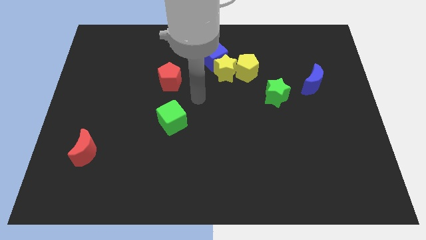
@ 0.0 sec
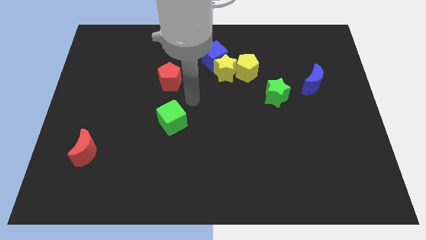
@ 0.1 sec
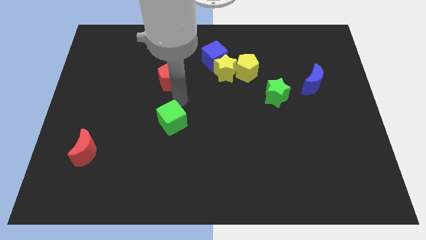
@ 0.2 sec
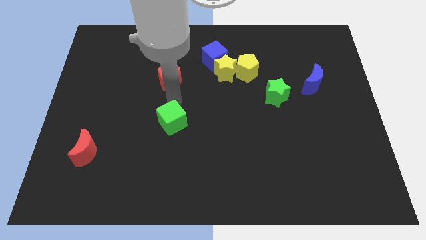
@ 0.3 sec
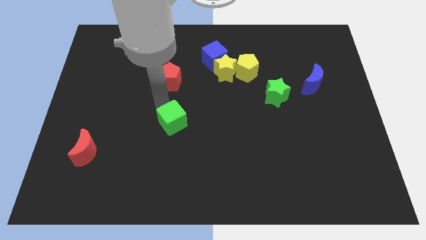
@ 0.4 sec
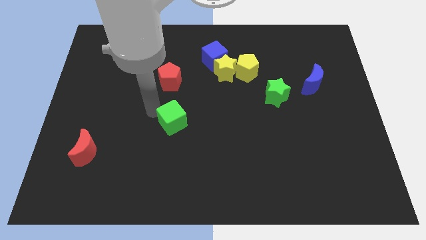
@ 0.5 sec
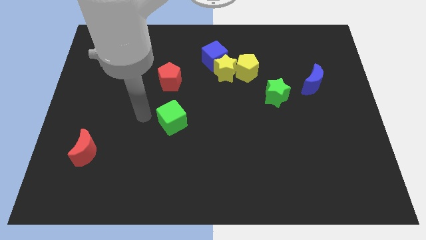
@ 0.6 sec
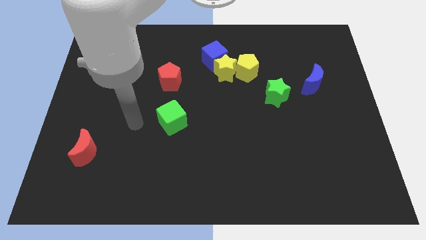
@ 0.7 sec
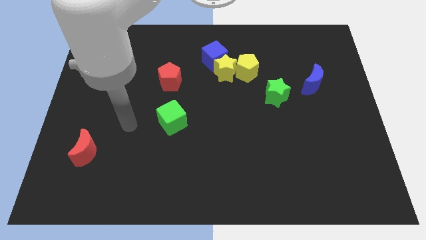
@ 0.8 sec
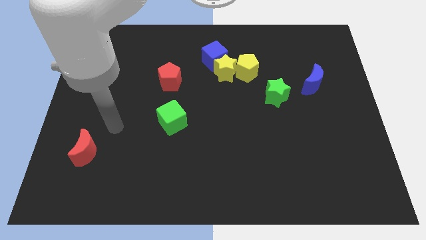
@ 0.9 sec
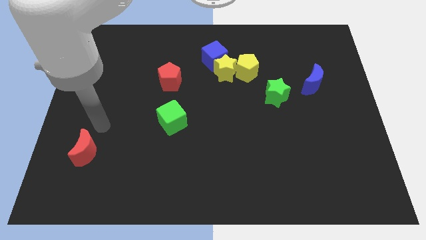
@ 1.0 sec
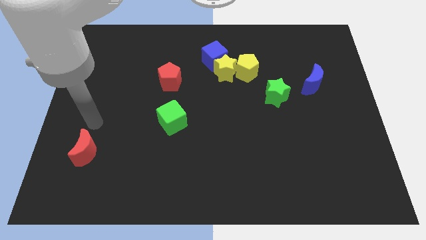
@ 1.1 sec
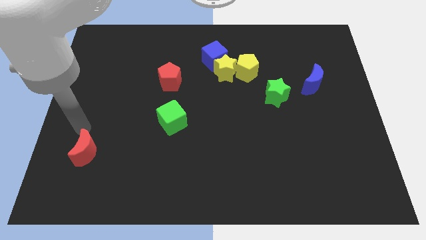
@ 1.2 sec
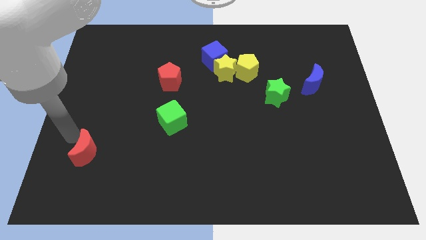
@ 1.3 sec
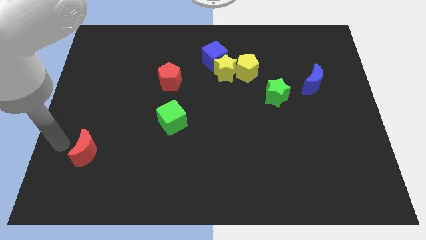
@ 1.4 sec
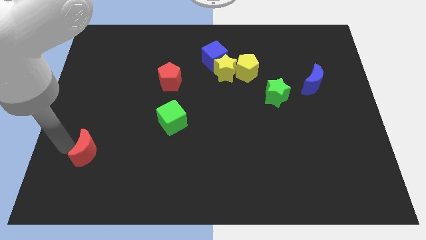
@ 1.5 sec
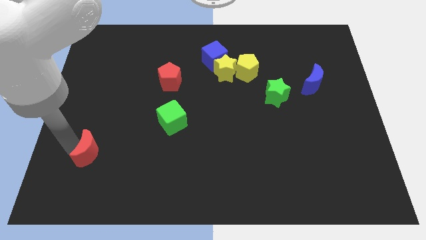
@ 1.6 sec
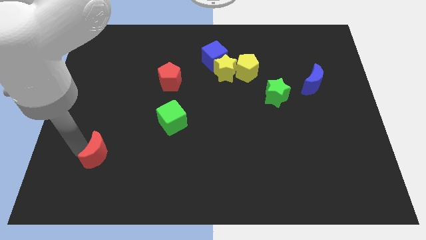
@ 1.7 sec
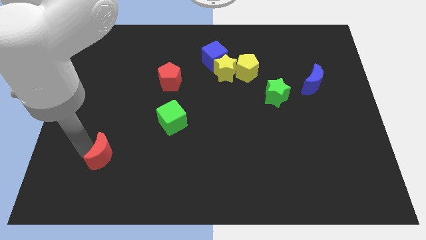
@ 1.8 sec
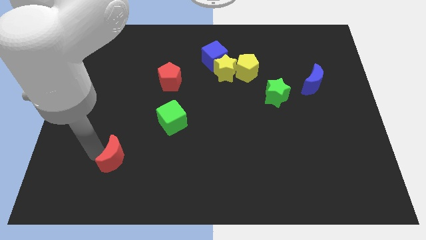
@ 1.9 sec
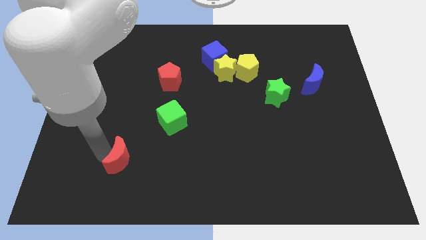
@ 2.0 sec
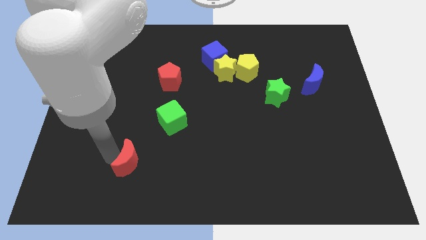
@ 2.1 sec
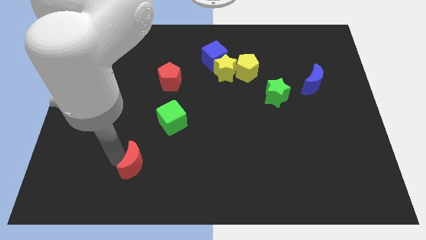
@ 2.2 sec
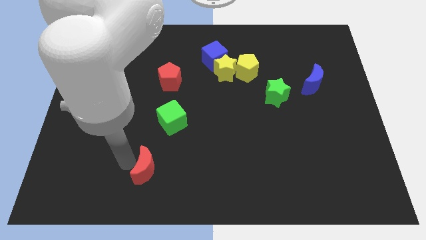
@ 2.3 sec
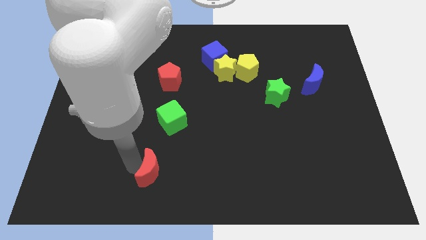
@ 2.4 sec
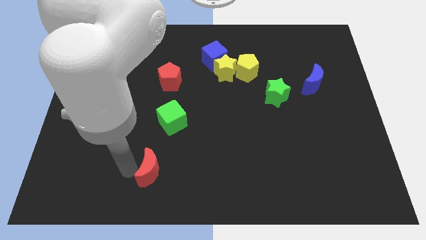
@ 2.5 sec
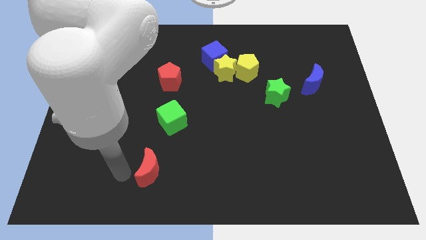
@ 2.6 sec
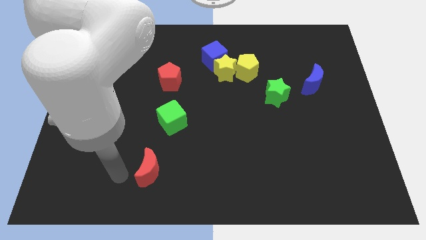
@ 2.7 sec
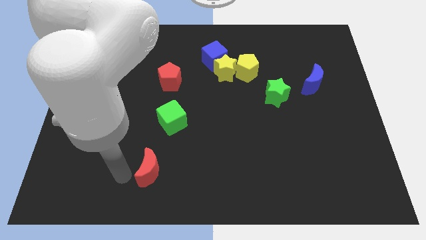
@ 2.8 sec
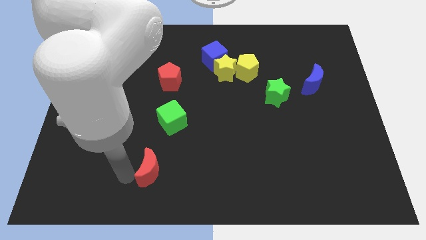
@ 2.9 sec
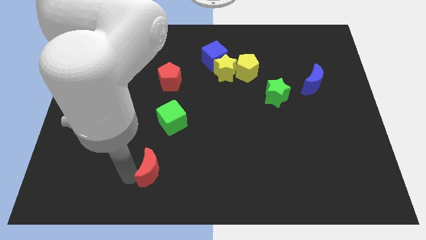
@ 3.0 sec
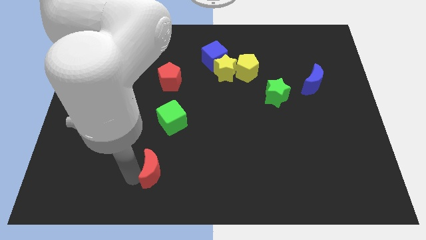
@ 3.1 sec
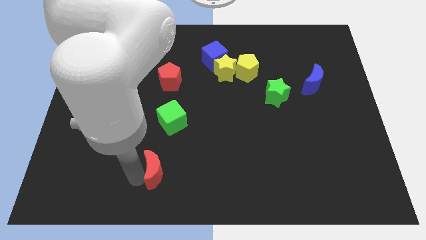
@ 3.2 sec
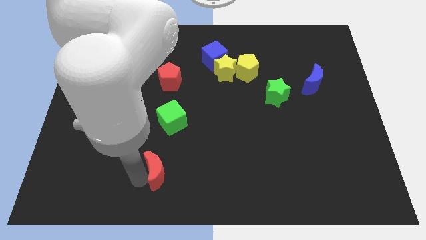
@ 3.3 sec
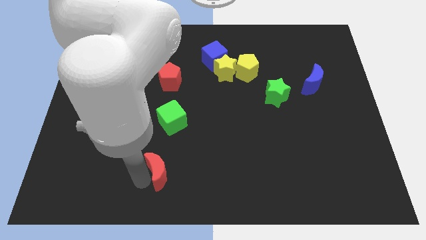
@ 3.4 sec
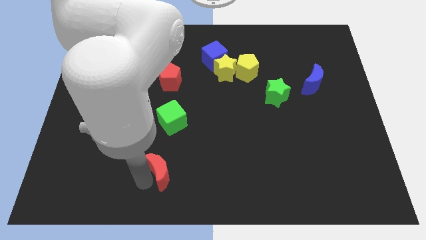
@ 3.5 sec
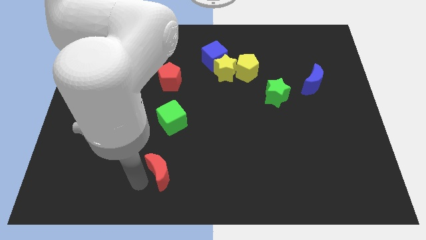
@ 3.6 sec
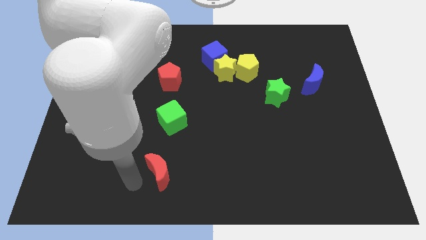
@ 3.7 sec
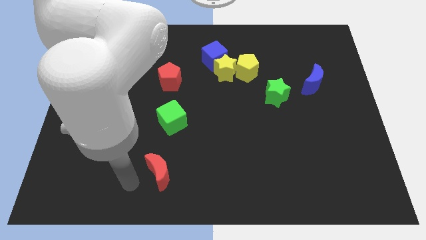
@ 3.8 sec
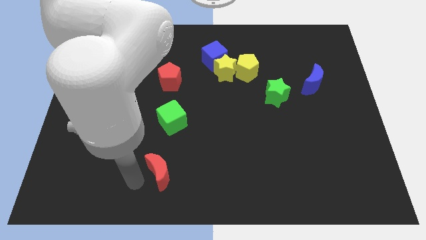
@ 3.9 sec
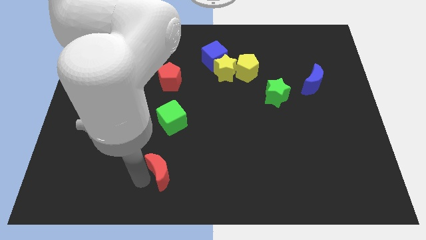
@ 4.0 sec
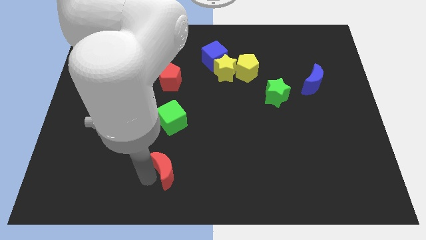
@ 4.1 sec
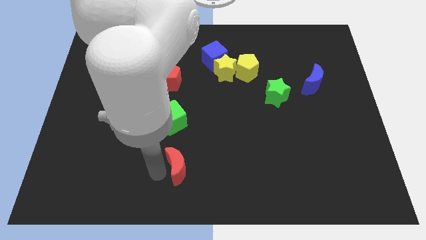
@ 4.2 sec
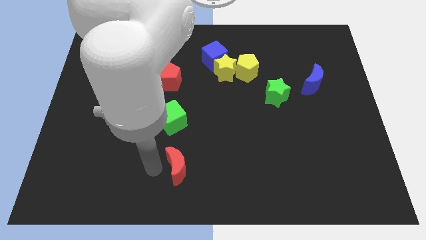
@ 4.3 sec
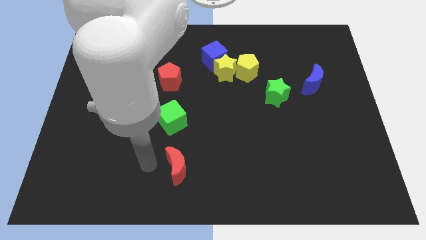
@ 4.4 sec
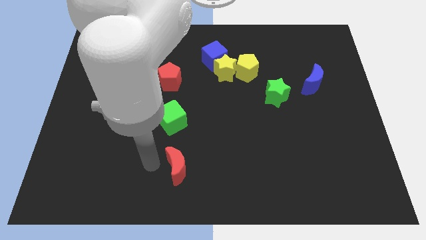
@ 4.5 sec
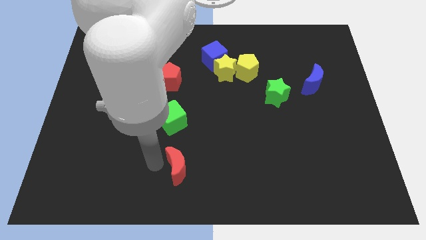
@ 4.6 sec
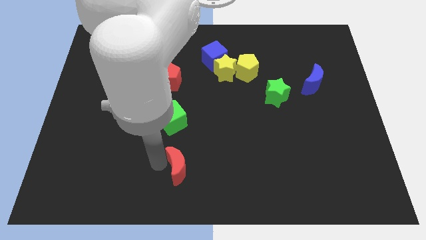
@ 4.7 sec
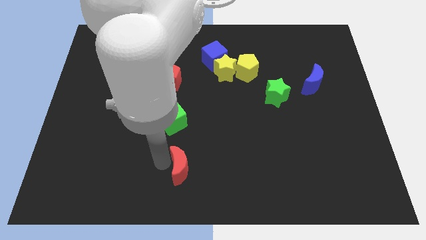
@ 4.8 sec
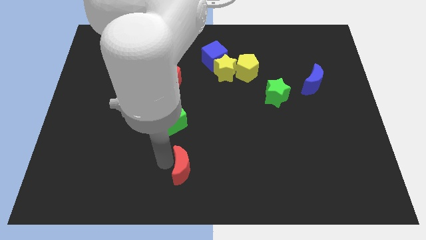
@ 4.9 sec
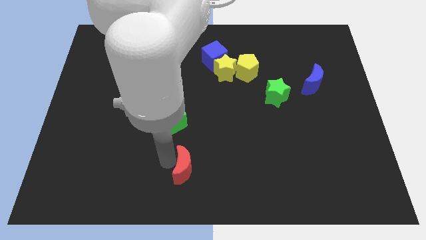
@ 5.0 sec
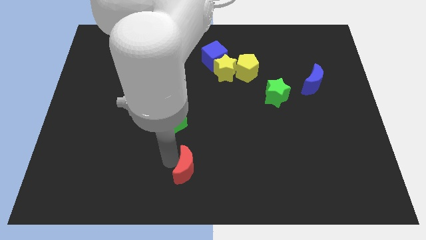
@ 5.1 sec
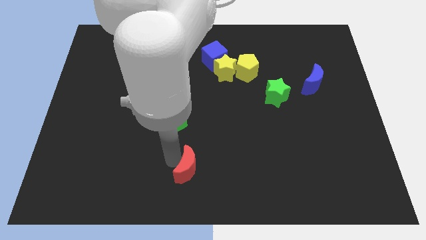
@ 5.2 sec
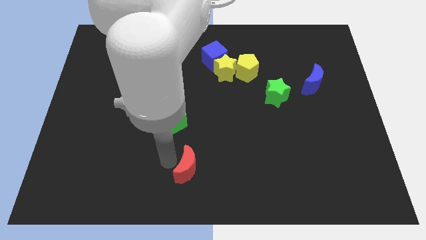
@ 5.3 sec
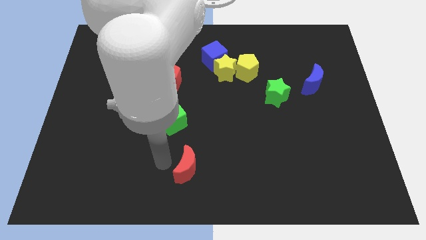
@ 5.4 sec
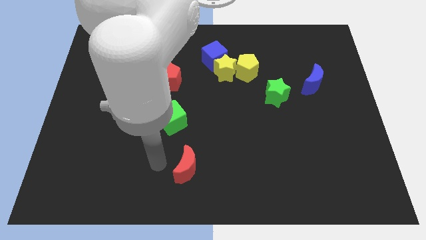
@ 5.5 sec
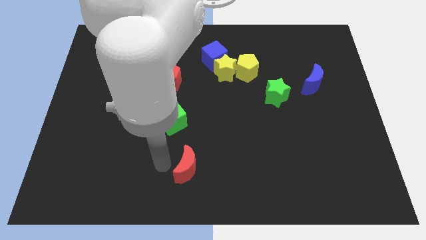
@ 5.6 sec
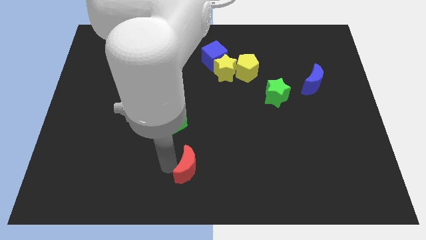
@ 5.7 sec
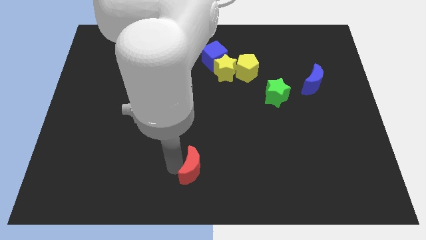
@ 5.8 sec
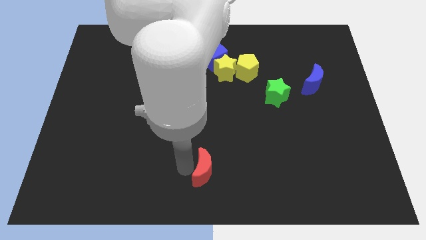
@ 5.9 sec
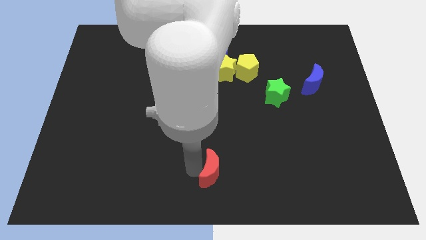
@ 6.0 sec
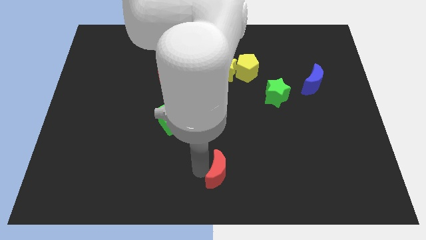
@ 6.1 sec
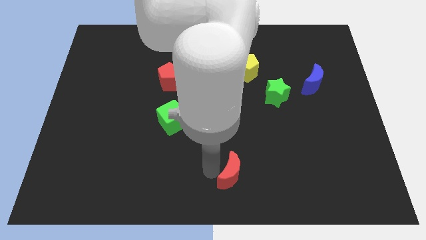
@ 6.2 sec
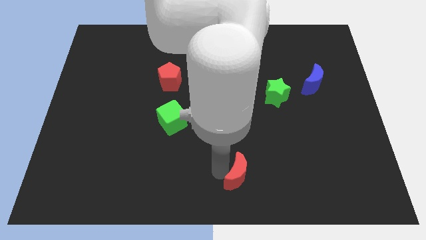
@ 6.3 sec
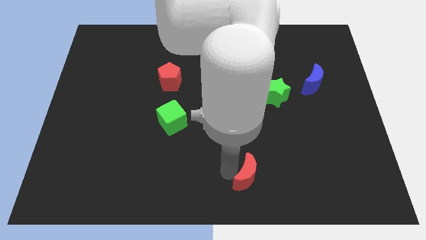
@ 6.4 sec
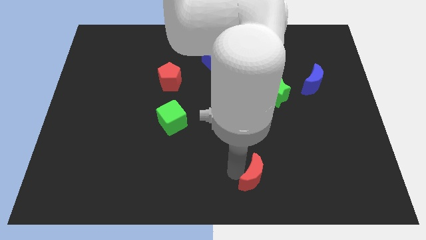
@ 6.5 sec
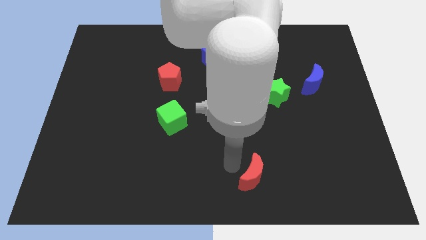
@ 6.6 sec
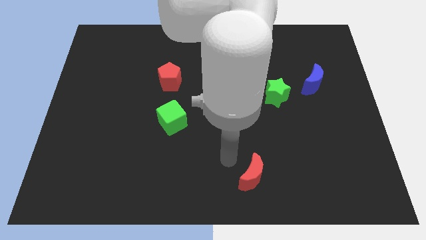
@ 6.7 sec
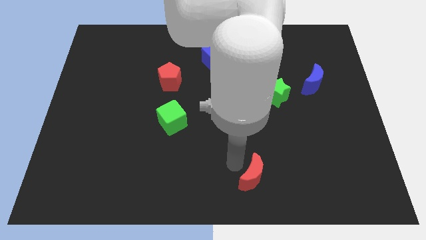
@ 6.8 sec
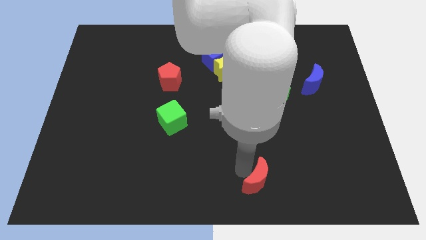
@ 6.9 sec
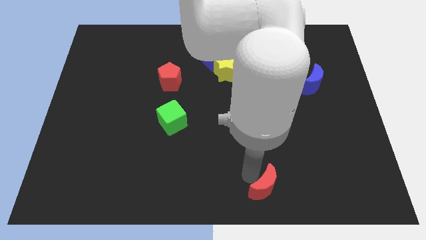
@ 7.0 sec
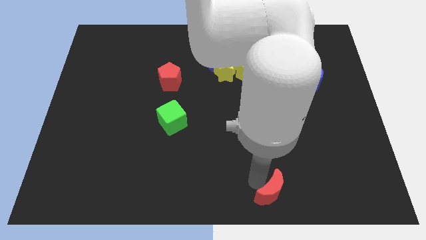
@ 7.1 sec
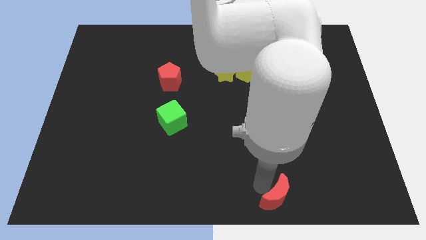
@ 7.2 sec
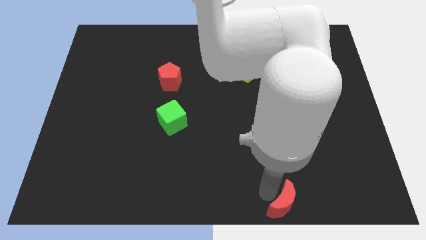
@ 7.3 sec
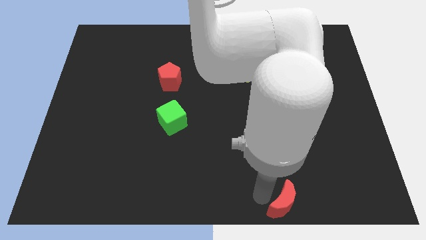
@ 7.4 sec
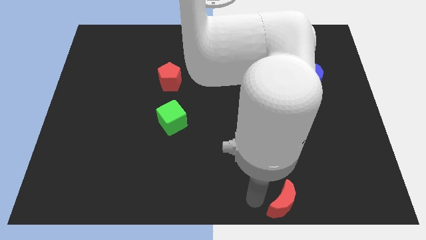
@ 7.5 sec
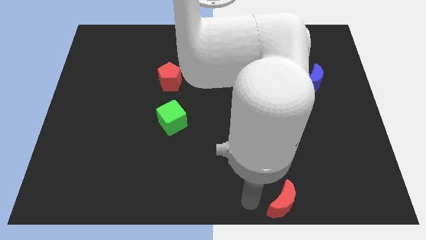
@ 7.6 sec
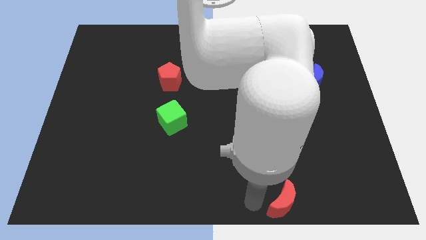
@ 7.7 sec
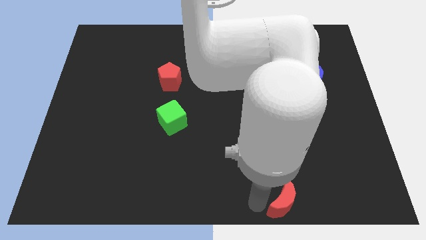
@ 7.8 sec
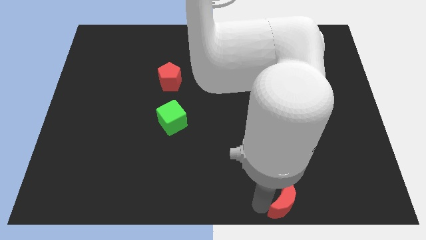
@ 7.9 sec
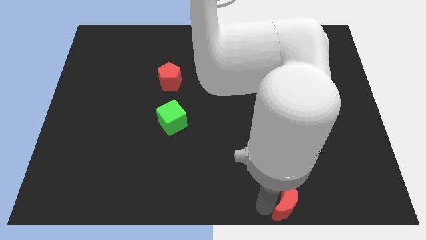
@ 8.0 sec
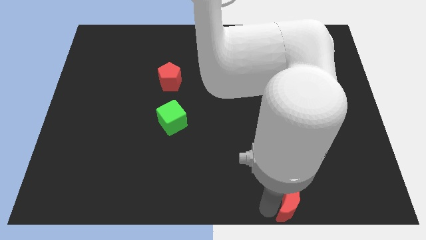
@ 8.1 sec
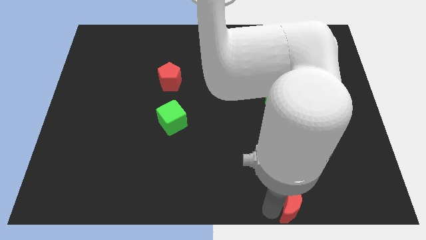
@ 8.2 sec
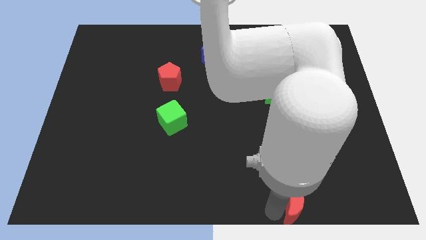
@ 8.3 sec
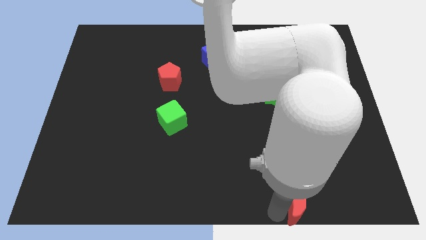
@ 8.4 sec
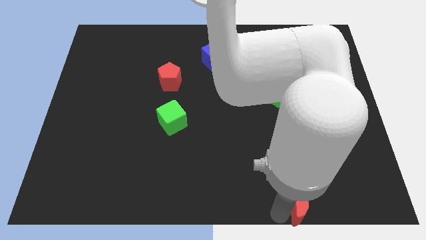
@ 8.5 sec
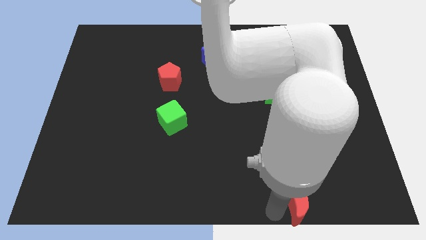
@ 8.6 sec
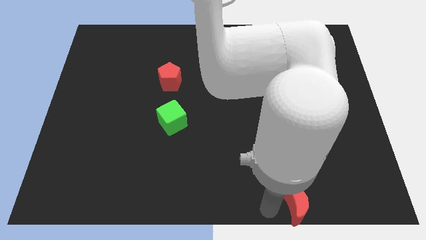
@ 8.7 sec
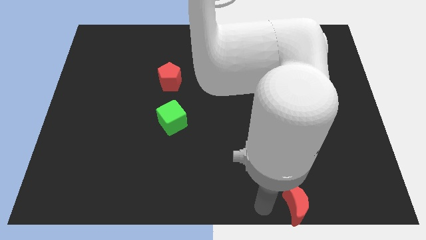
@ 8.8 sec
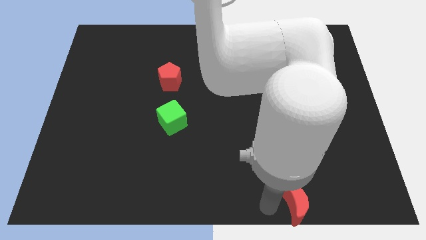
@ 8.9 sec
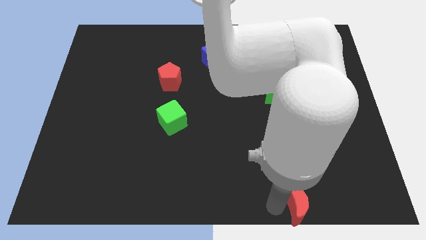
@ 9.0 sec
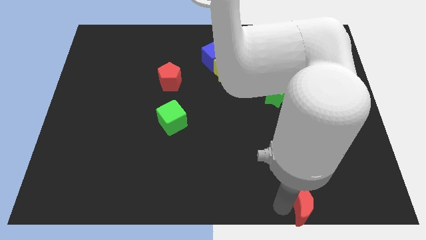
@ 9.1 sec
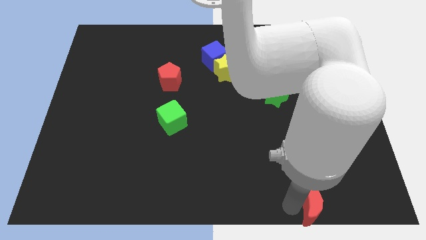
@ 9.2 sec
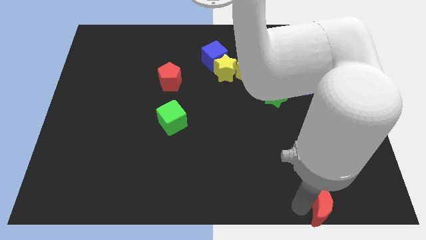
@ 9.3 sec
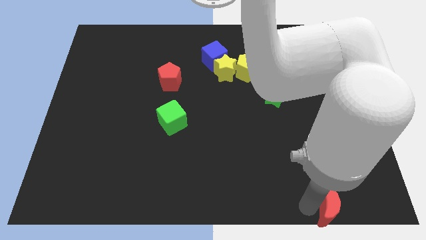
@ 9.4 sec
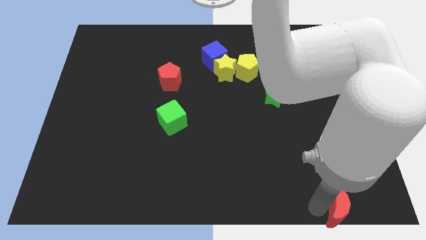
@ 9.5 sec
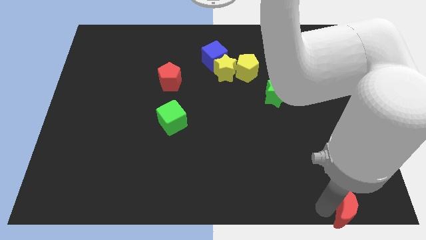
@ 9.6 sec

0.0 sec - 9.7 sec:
slide the red moon to the bottom right
